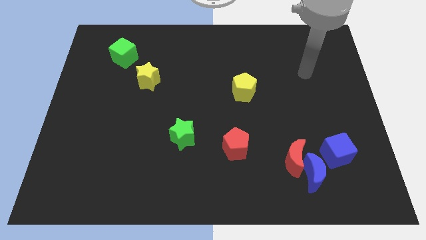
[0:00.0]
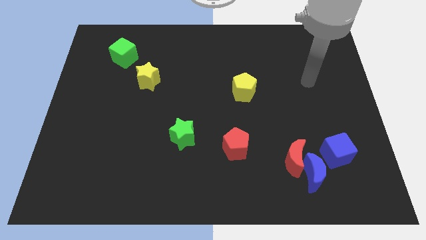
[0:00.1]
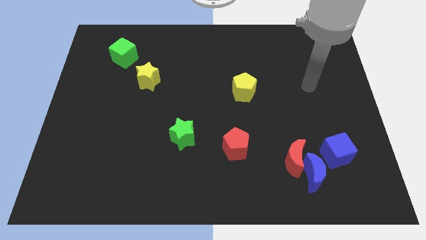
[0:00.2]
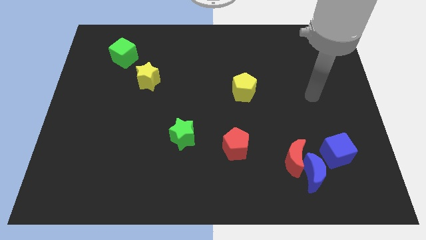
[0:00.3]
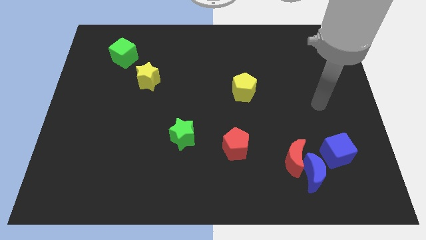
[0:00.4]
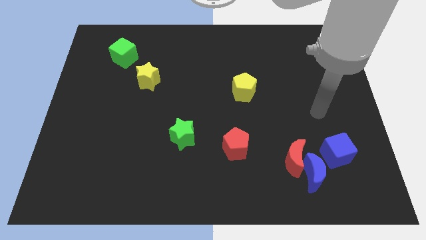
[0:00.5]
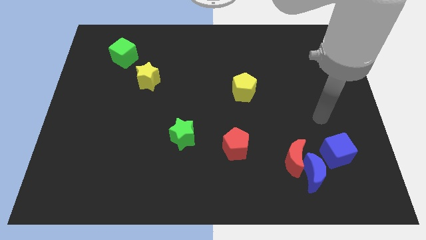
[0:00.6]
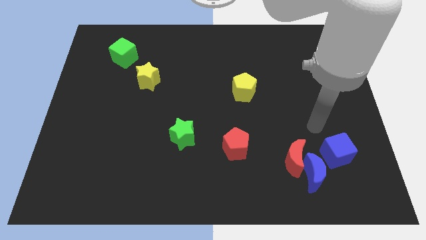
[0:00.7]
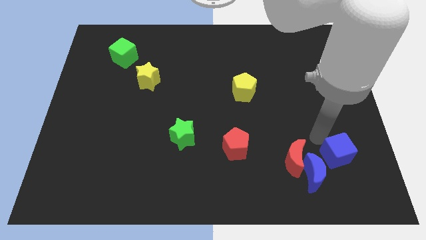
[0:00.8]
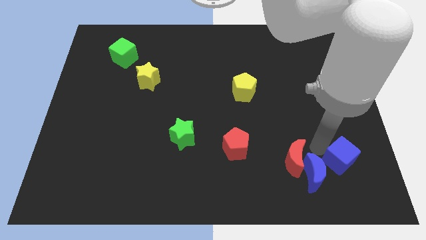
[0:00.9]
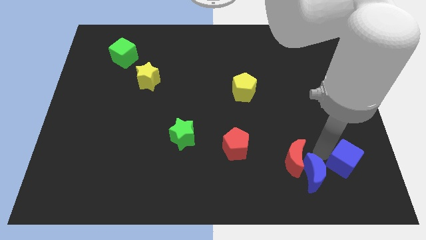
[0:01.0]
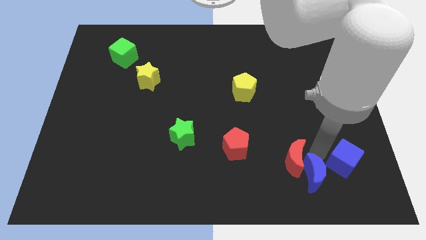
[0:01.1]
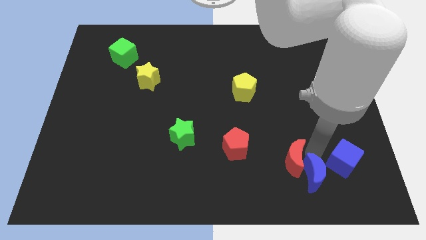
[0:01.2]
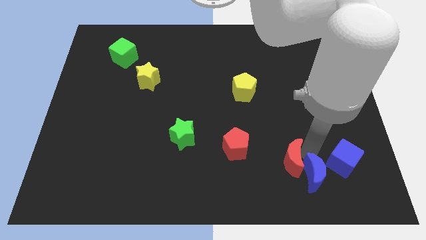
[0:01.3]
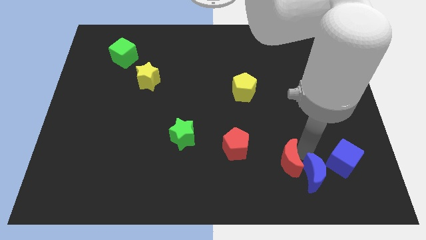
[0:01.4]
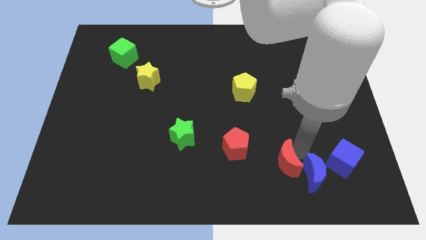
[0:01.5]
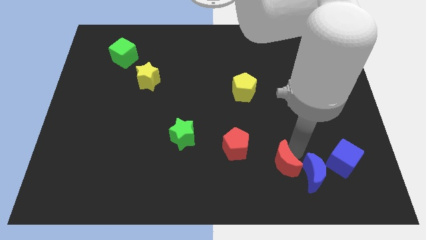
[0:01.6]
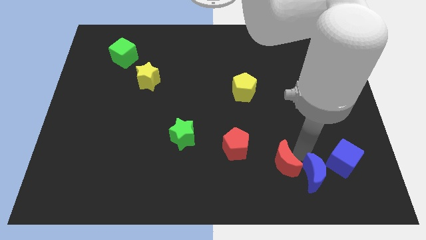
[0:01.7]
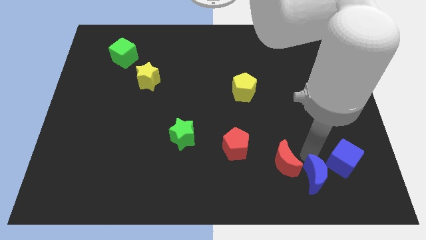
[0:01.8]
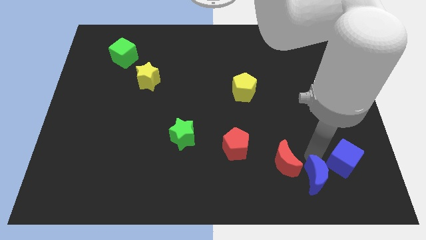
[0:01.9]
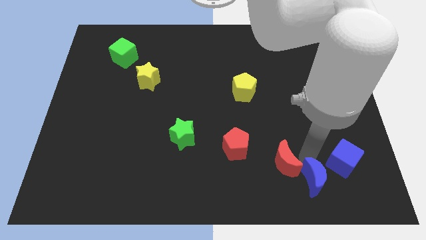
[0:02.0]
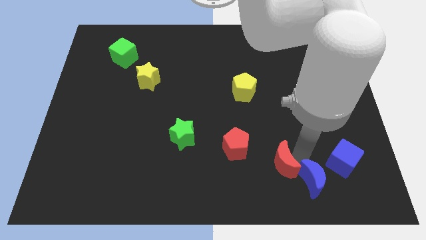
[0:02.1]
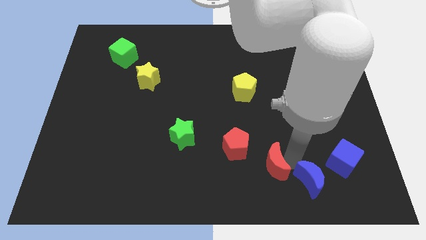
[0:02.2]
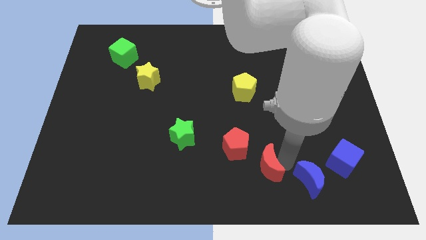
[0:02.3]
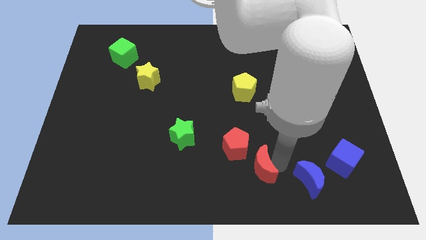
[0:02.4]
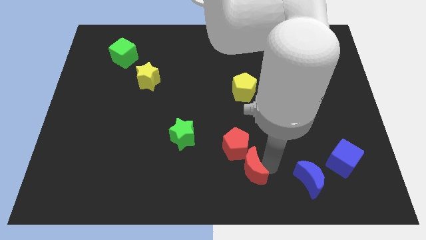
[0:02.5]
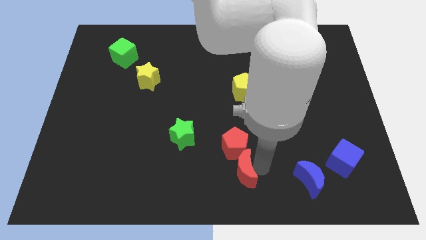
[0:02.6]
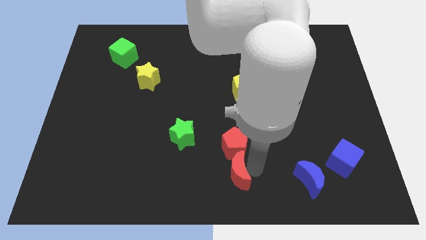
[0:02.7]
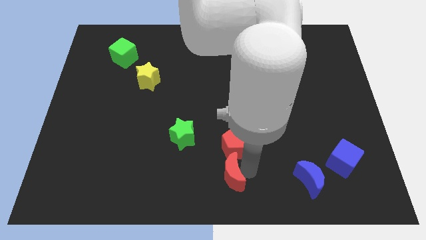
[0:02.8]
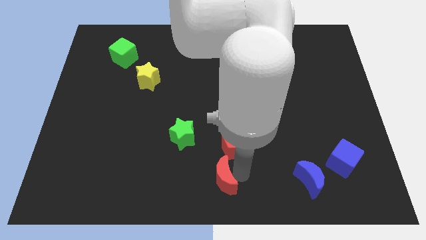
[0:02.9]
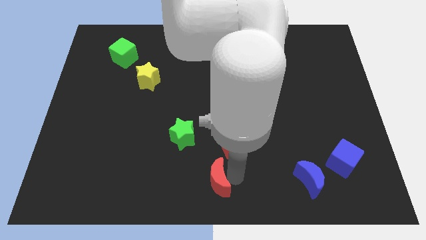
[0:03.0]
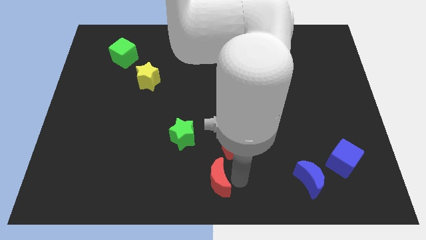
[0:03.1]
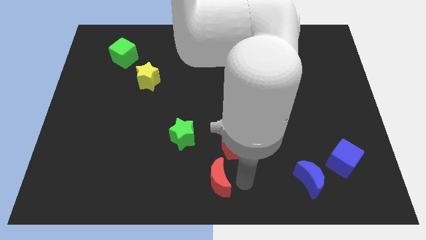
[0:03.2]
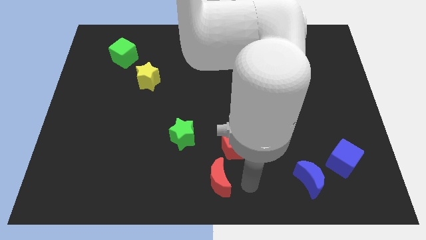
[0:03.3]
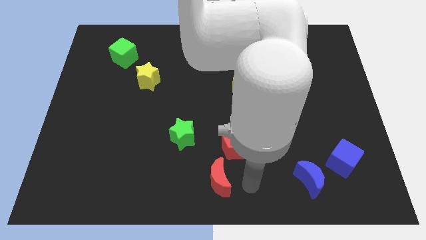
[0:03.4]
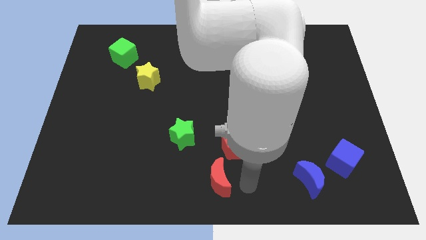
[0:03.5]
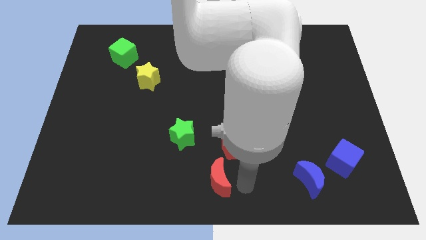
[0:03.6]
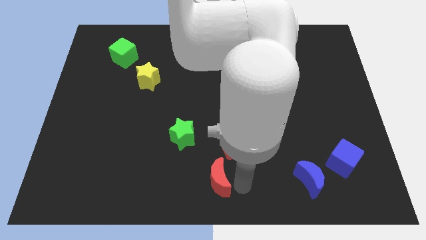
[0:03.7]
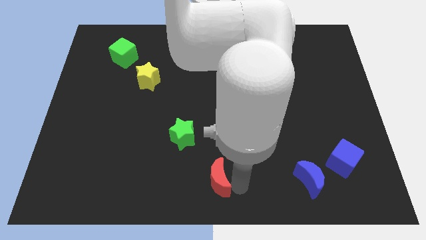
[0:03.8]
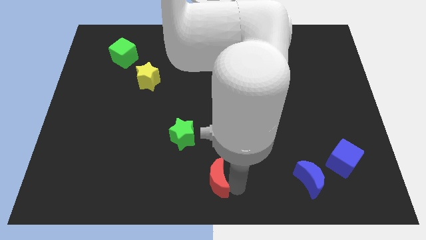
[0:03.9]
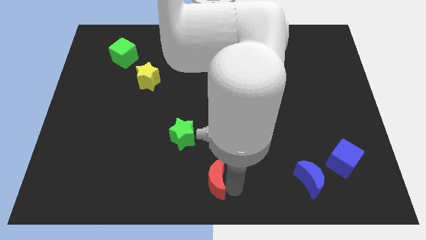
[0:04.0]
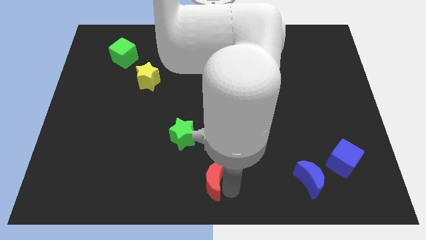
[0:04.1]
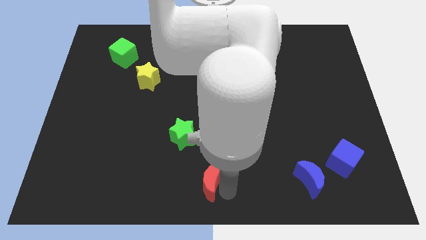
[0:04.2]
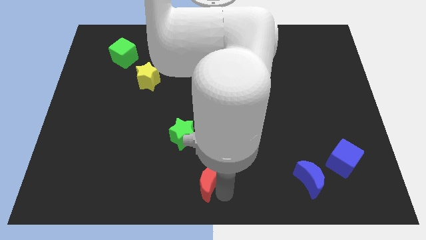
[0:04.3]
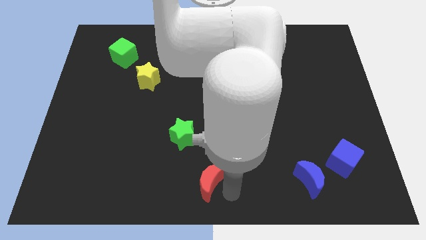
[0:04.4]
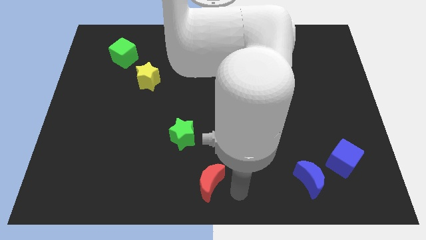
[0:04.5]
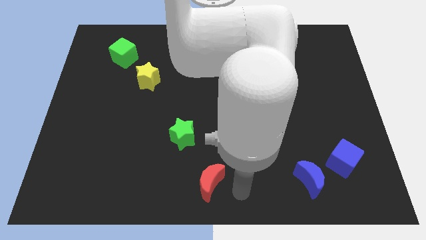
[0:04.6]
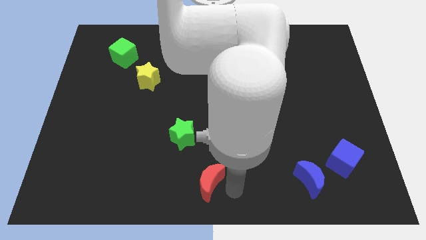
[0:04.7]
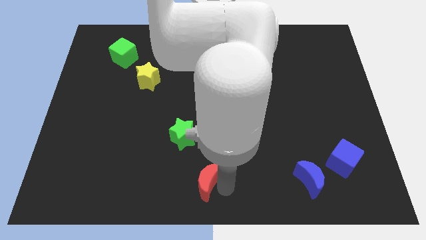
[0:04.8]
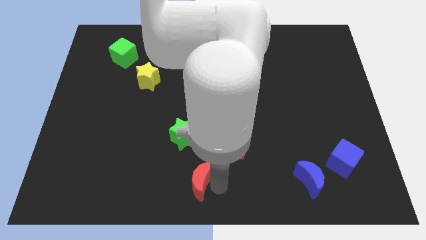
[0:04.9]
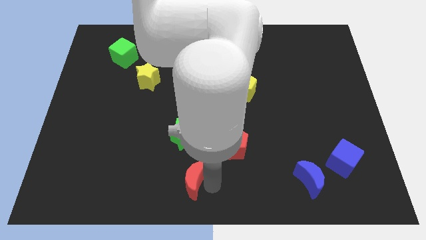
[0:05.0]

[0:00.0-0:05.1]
slide the red moon to the left

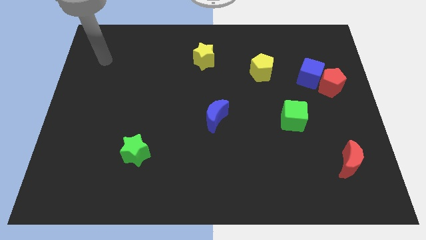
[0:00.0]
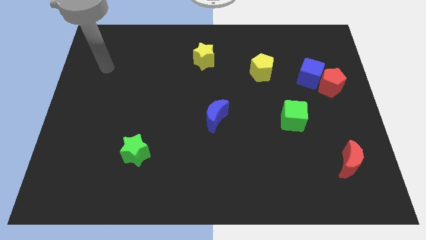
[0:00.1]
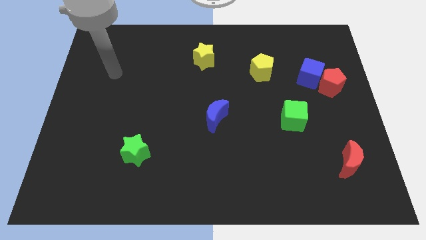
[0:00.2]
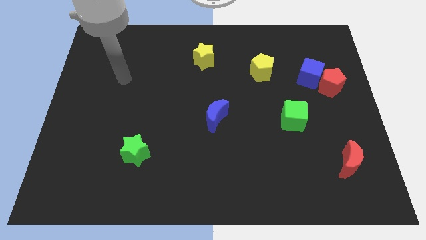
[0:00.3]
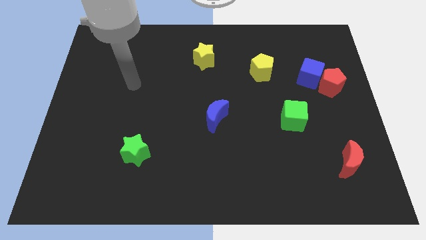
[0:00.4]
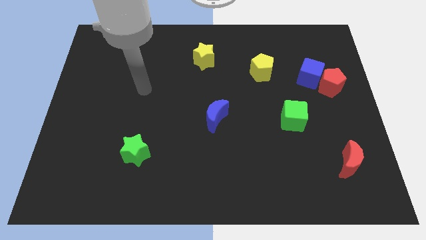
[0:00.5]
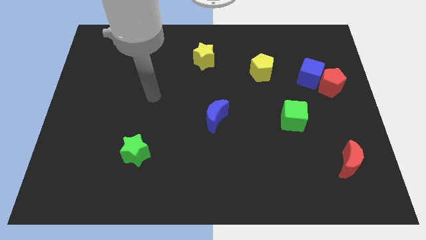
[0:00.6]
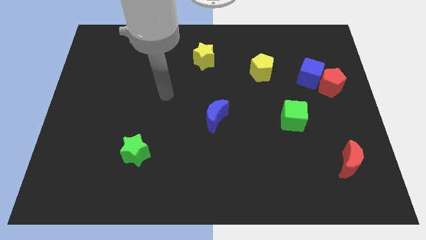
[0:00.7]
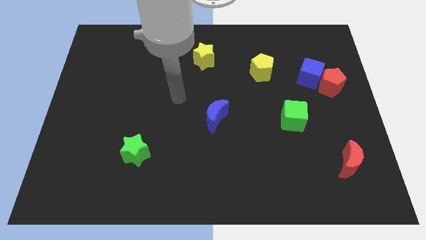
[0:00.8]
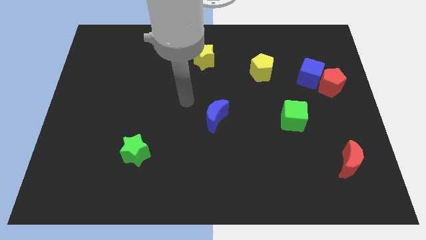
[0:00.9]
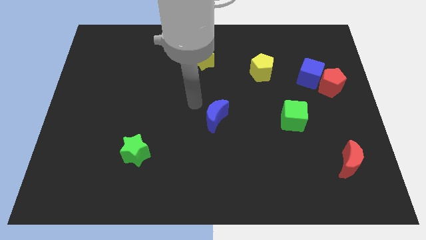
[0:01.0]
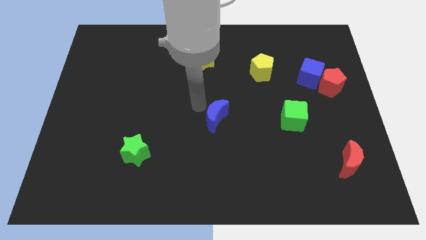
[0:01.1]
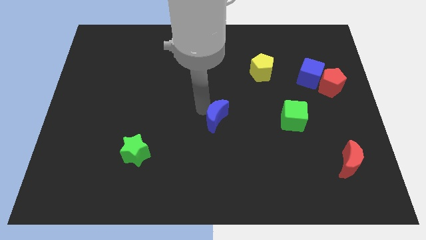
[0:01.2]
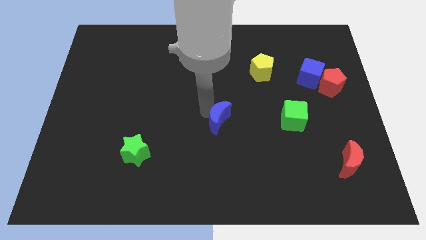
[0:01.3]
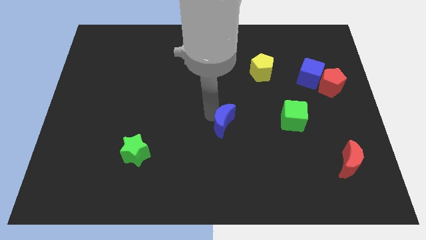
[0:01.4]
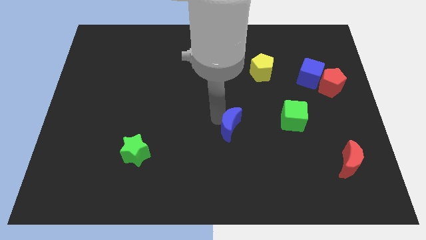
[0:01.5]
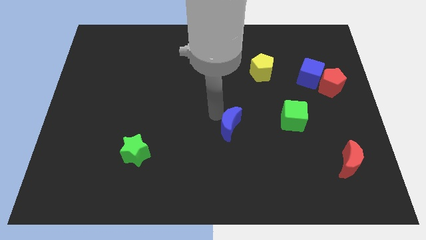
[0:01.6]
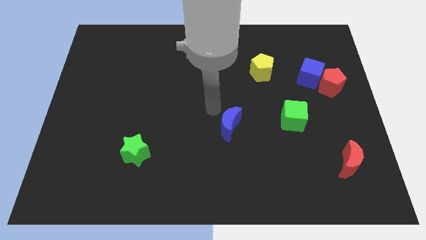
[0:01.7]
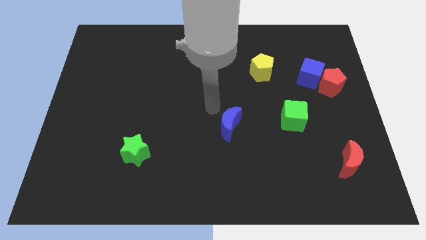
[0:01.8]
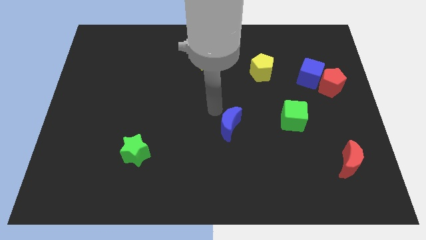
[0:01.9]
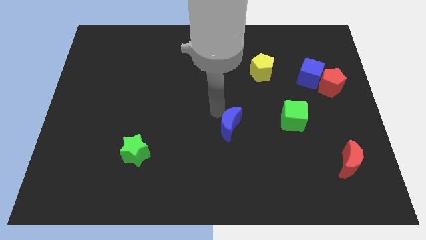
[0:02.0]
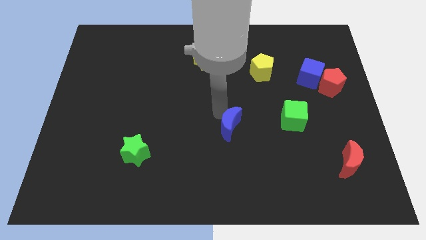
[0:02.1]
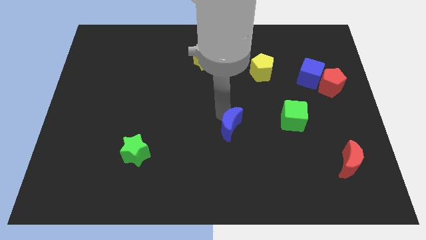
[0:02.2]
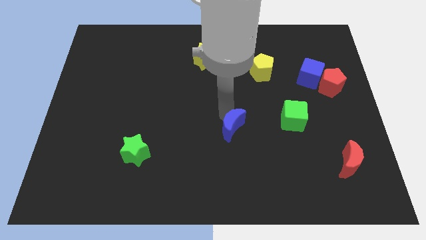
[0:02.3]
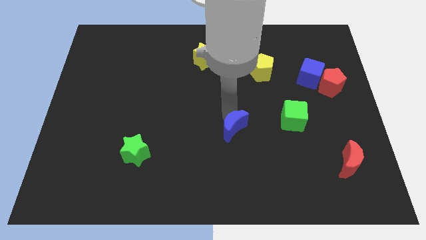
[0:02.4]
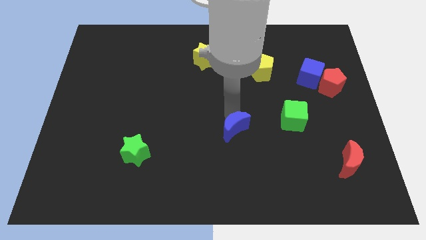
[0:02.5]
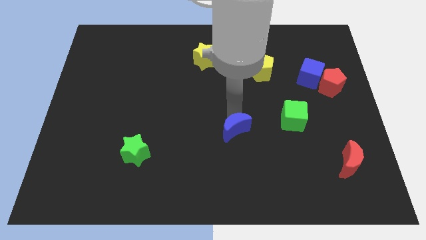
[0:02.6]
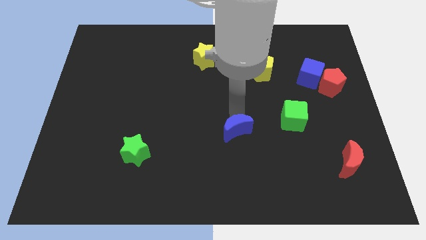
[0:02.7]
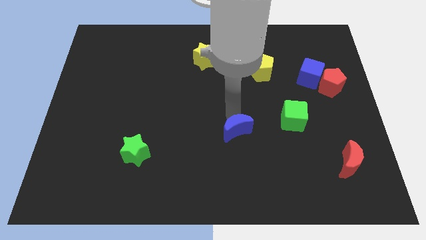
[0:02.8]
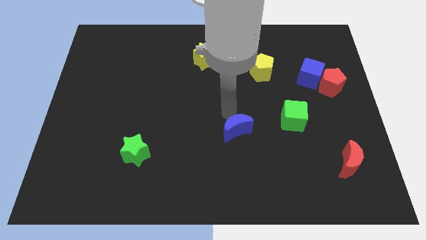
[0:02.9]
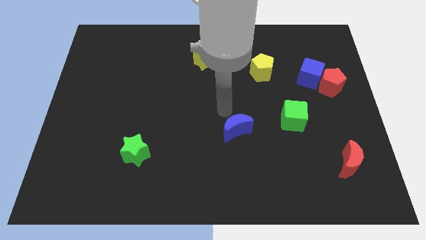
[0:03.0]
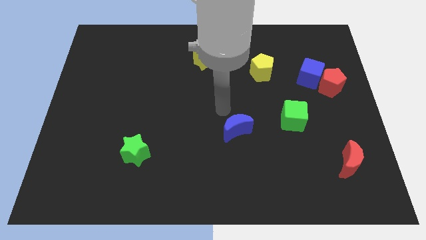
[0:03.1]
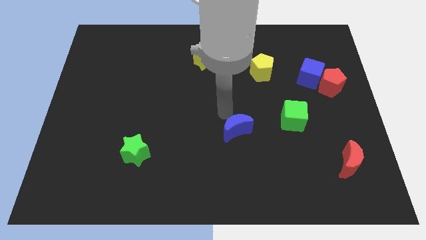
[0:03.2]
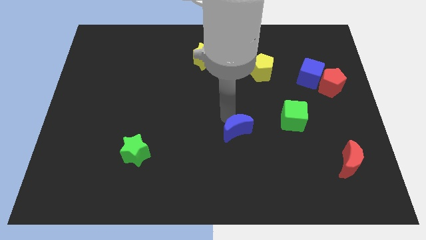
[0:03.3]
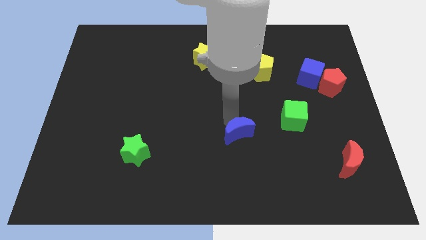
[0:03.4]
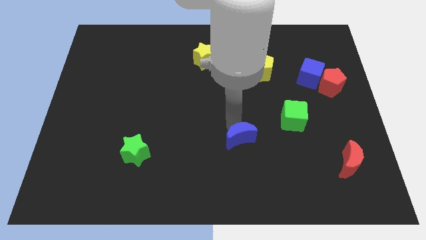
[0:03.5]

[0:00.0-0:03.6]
slide the blue moon a little down and then right
